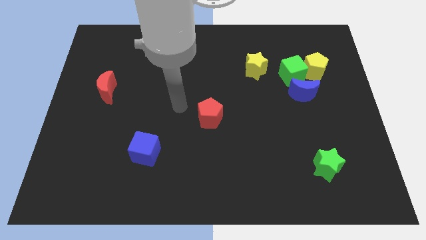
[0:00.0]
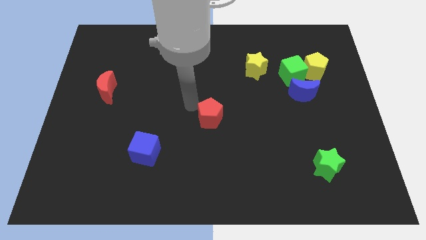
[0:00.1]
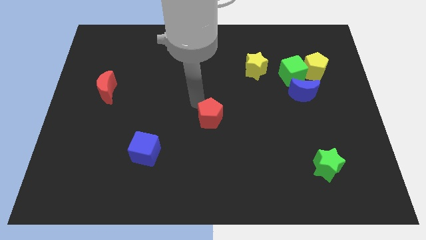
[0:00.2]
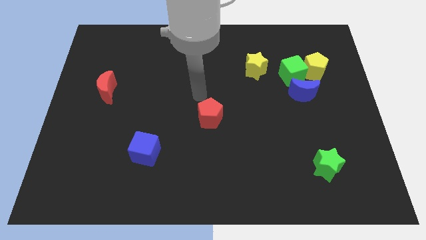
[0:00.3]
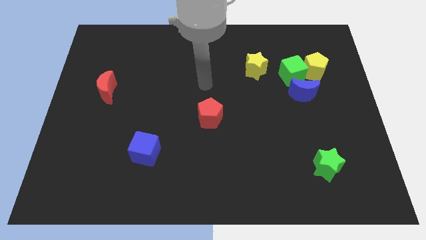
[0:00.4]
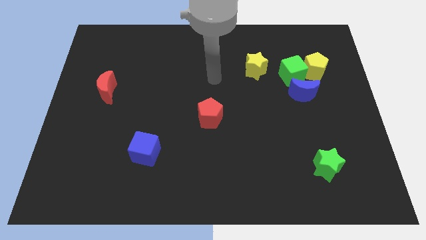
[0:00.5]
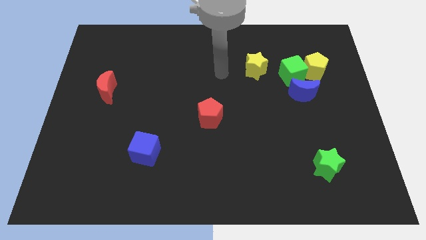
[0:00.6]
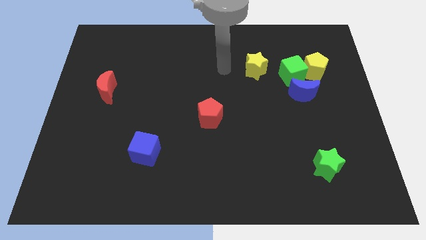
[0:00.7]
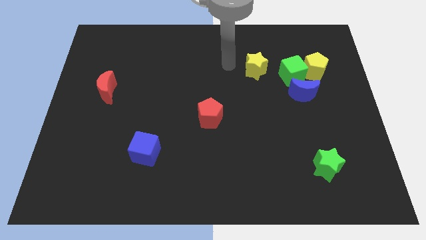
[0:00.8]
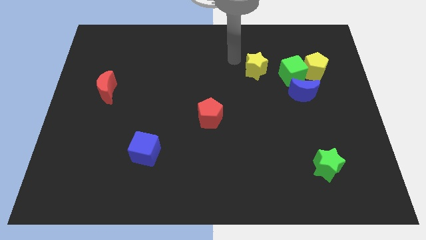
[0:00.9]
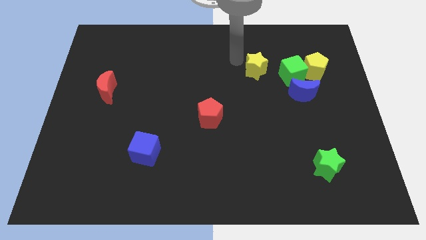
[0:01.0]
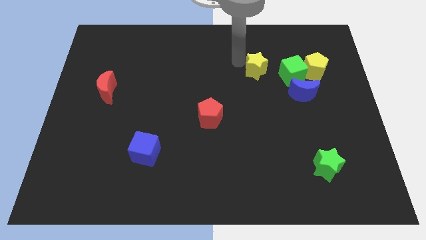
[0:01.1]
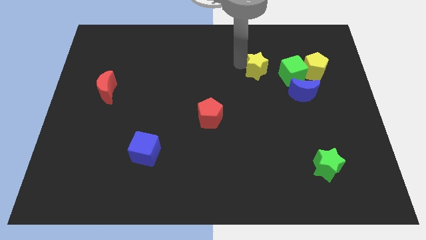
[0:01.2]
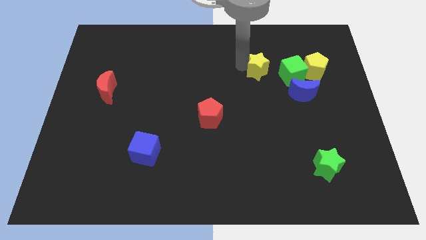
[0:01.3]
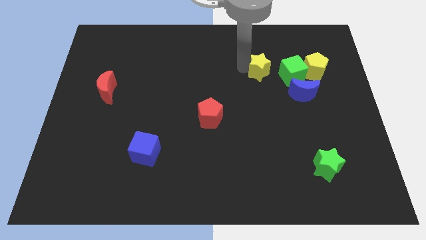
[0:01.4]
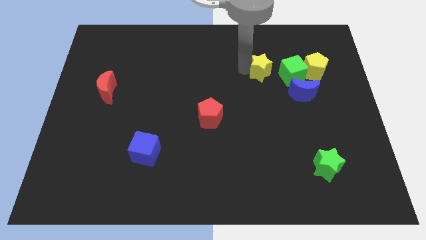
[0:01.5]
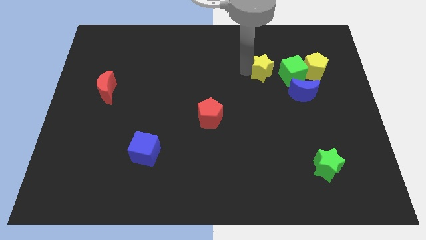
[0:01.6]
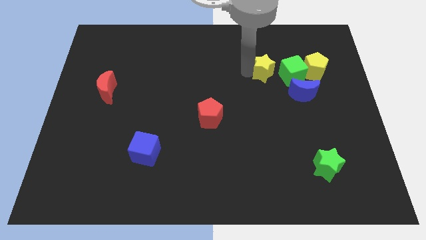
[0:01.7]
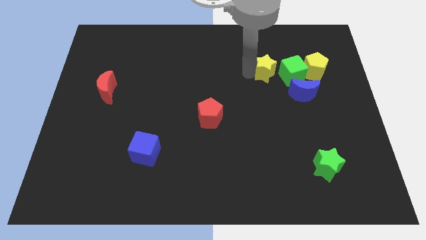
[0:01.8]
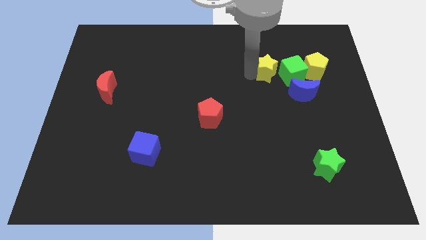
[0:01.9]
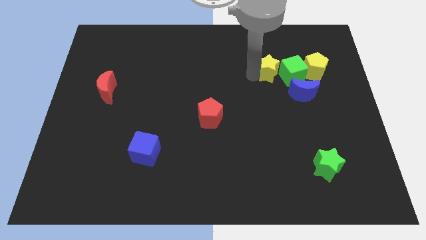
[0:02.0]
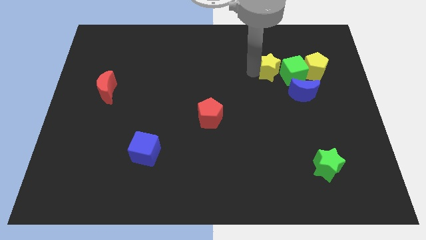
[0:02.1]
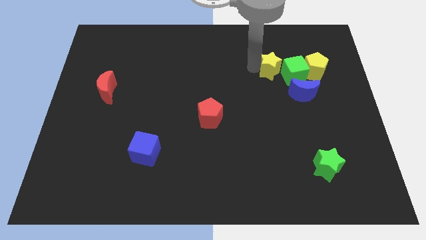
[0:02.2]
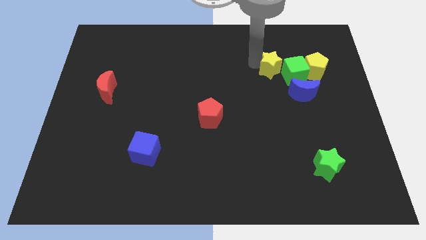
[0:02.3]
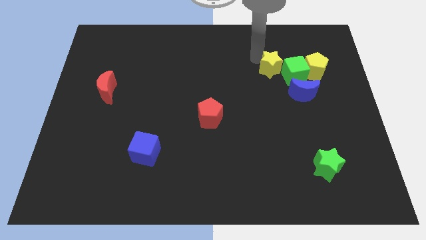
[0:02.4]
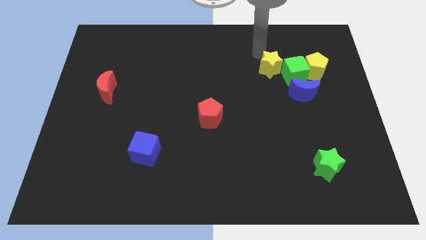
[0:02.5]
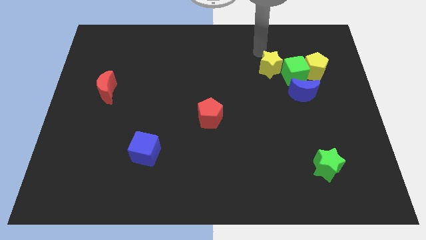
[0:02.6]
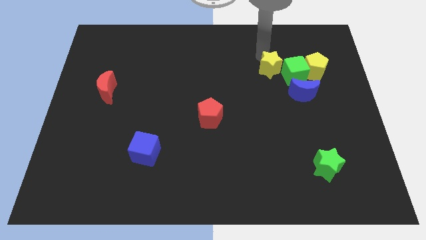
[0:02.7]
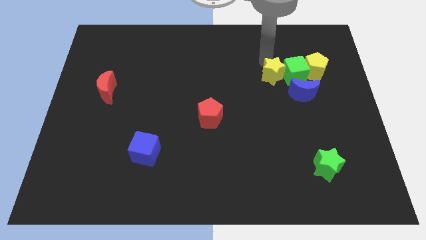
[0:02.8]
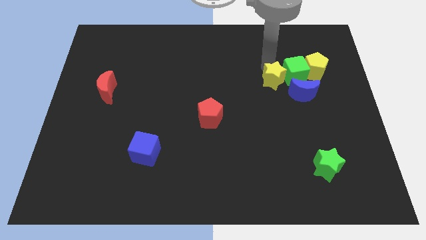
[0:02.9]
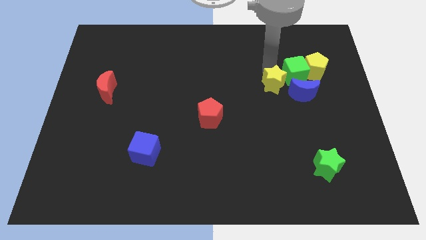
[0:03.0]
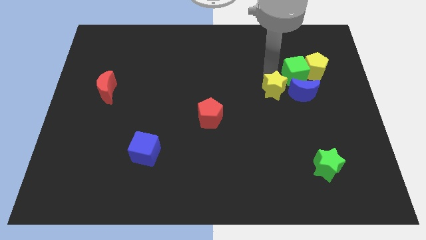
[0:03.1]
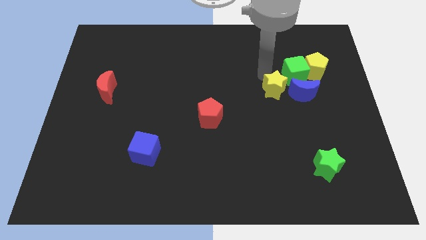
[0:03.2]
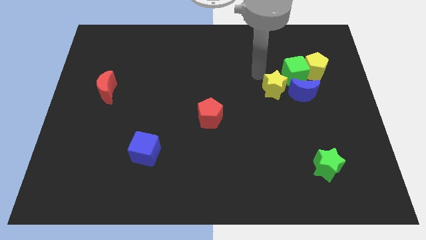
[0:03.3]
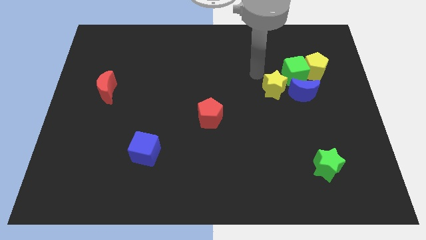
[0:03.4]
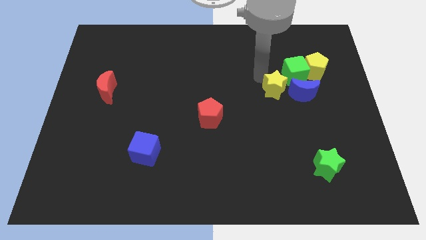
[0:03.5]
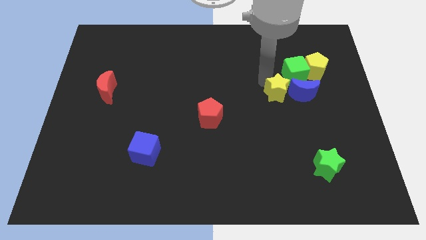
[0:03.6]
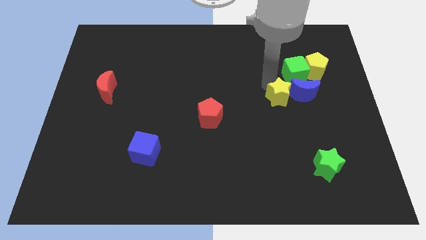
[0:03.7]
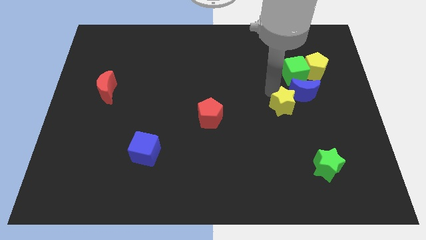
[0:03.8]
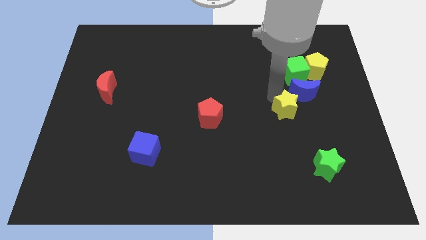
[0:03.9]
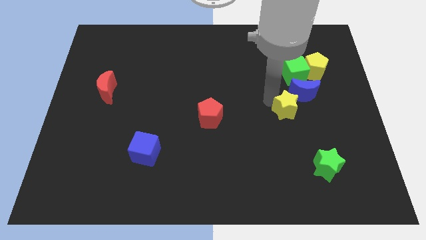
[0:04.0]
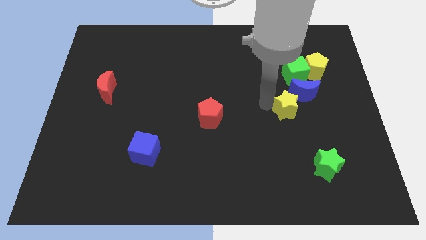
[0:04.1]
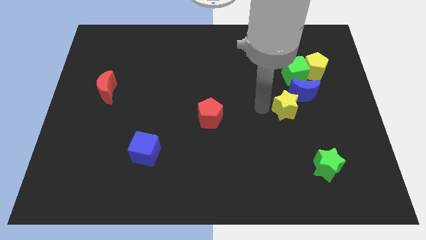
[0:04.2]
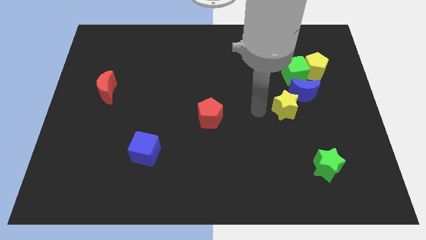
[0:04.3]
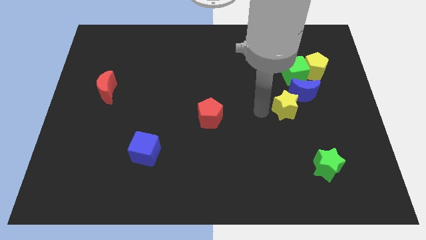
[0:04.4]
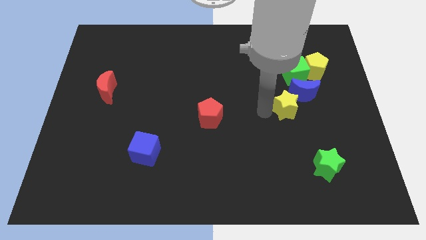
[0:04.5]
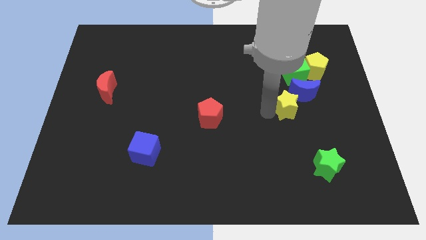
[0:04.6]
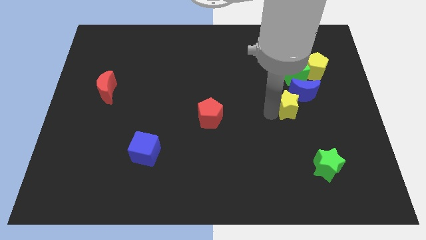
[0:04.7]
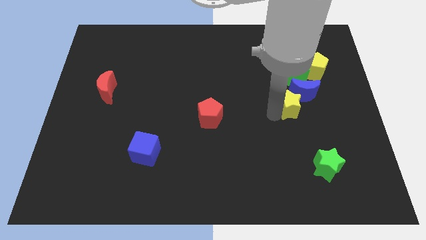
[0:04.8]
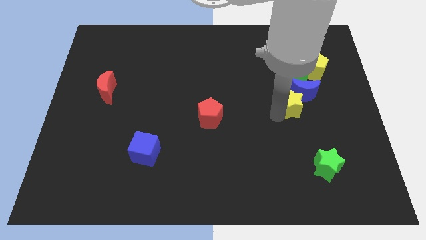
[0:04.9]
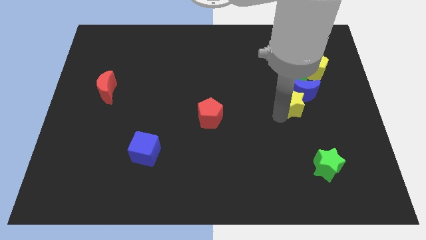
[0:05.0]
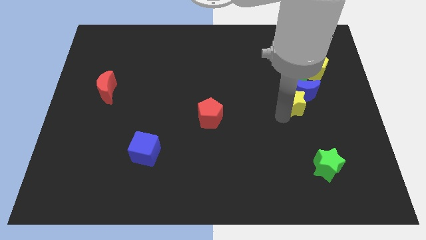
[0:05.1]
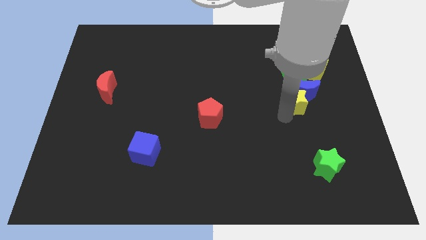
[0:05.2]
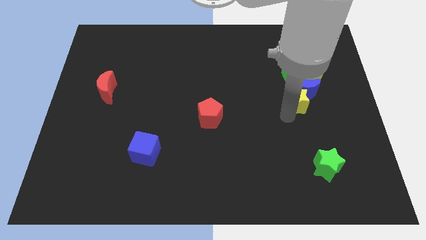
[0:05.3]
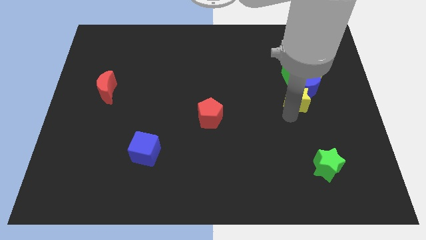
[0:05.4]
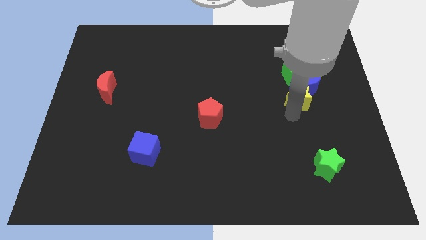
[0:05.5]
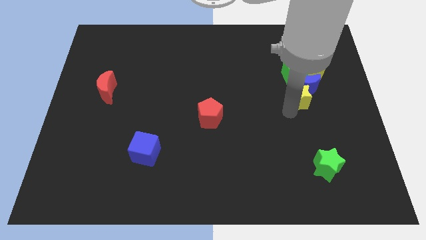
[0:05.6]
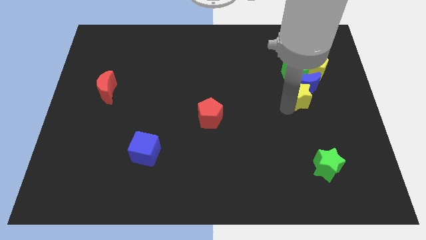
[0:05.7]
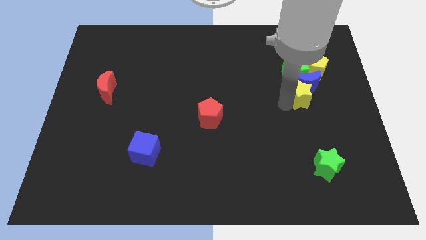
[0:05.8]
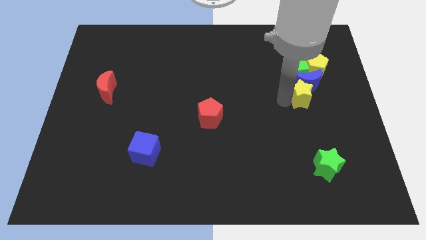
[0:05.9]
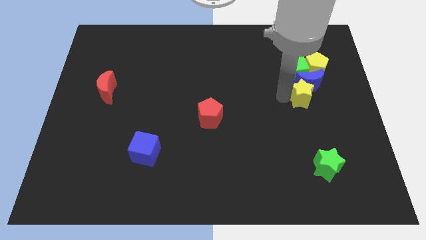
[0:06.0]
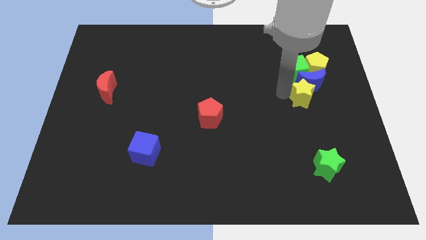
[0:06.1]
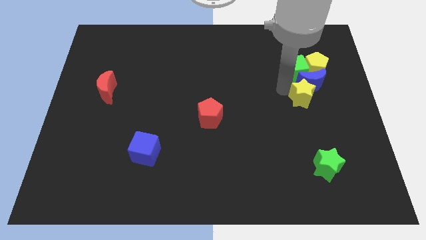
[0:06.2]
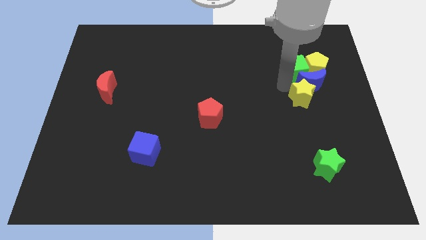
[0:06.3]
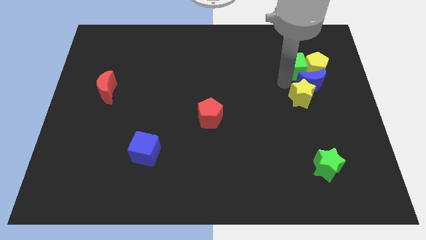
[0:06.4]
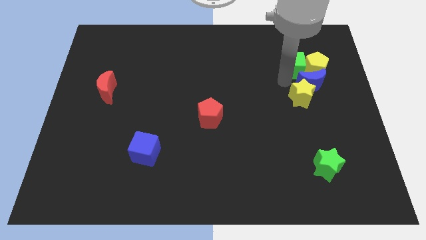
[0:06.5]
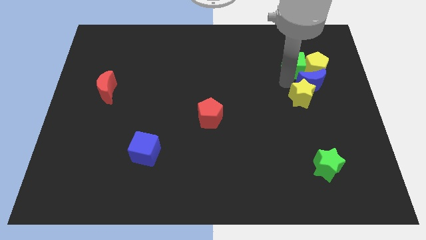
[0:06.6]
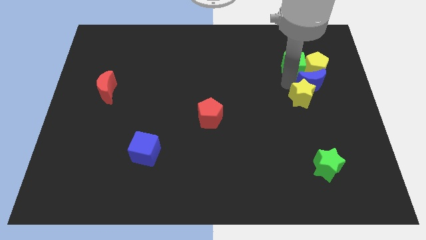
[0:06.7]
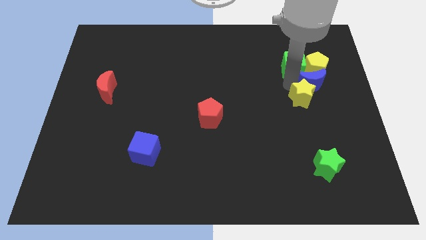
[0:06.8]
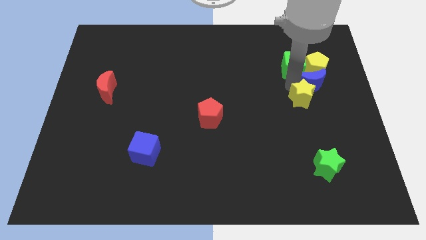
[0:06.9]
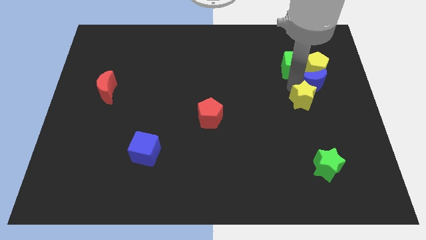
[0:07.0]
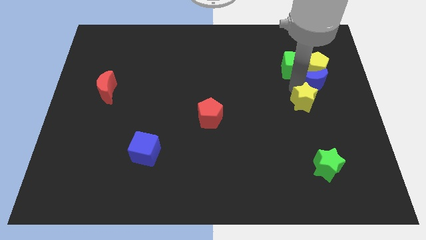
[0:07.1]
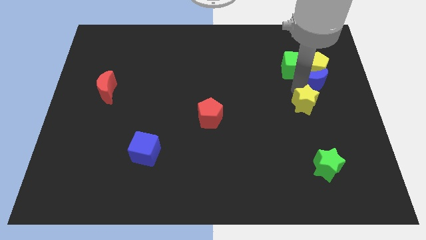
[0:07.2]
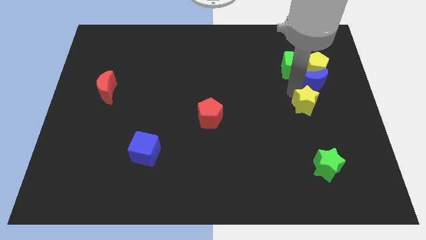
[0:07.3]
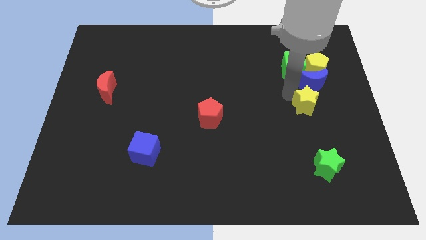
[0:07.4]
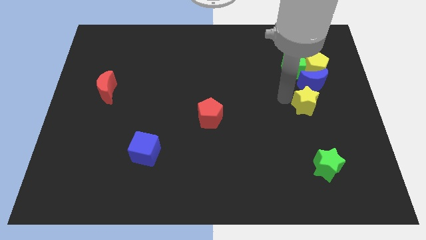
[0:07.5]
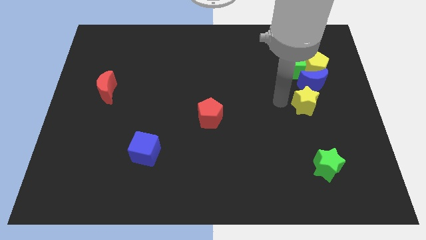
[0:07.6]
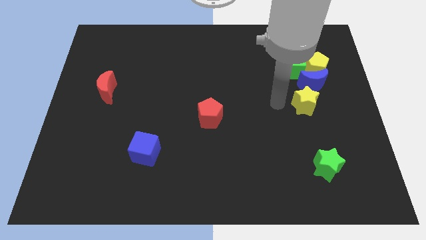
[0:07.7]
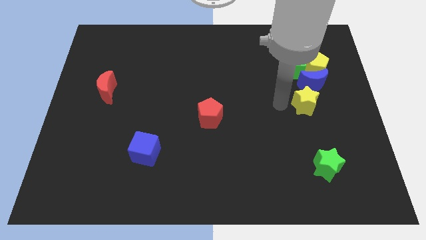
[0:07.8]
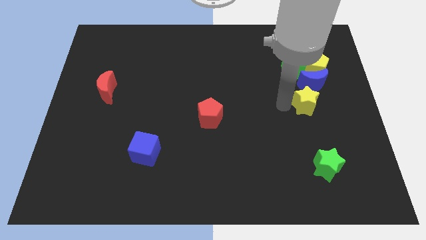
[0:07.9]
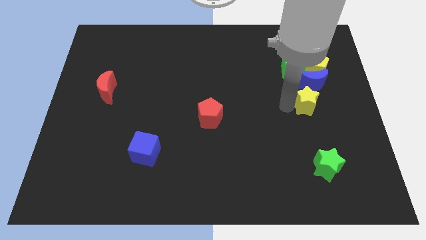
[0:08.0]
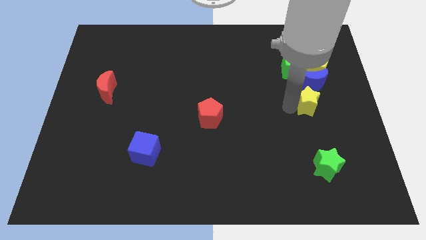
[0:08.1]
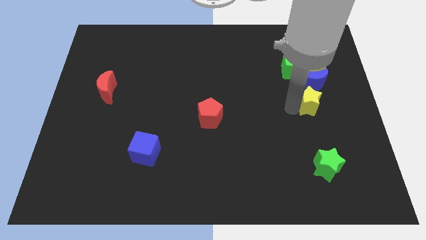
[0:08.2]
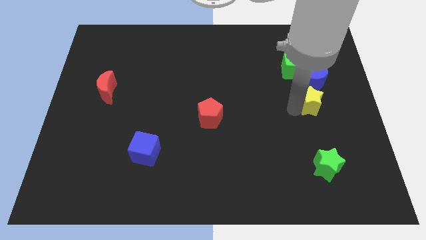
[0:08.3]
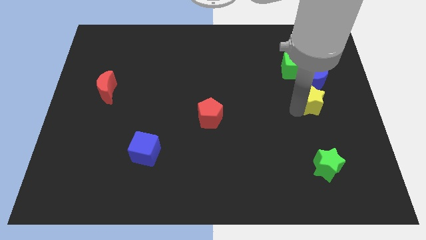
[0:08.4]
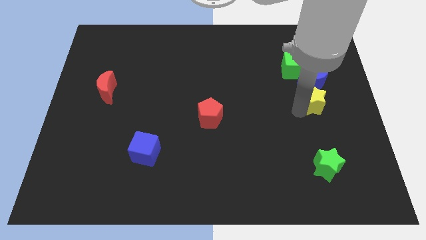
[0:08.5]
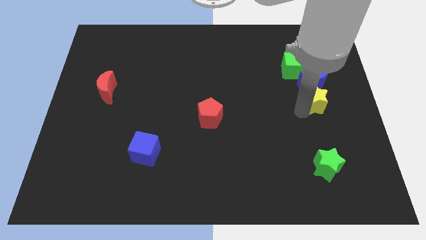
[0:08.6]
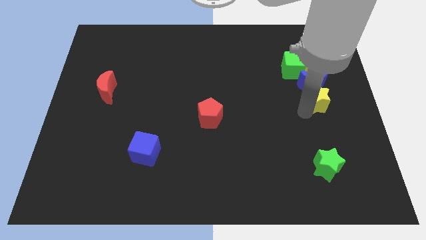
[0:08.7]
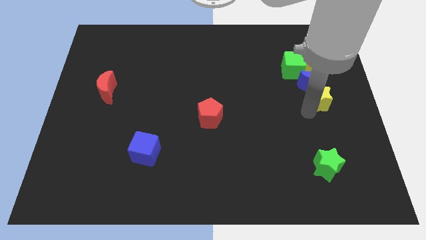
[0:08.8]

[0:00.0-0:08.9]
push the yellow star to the right side of the board
